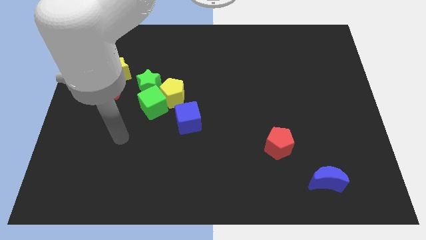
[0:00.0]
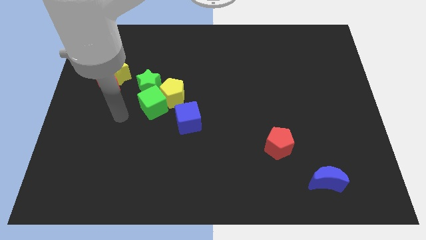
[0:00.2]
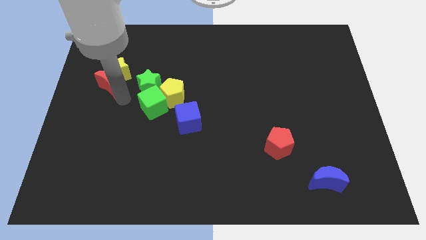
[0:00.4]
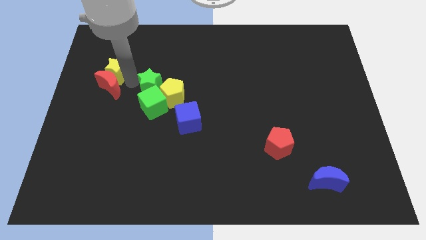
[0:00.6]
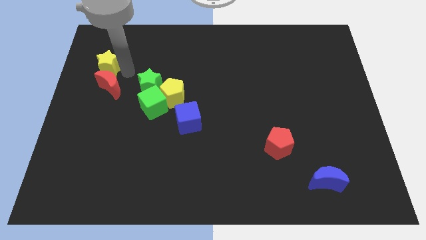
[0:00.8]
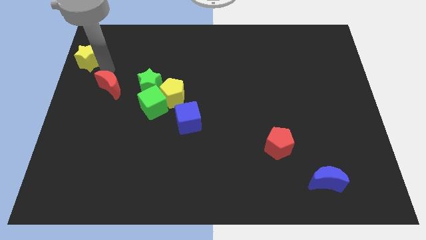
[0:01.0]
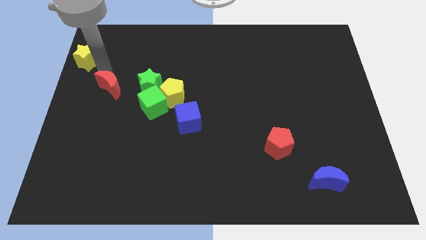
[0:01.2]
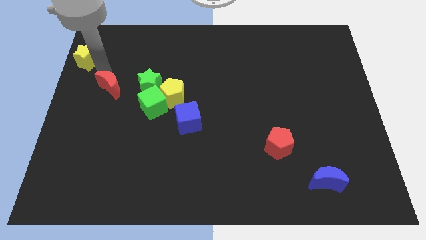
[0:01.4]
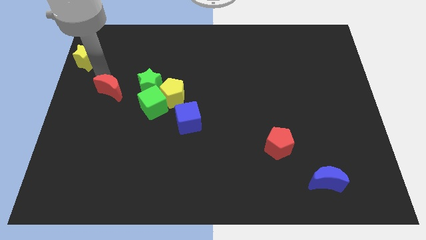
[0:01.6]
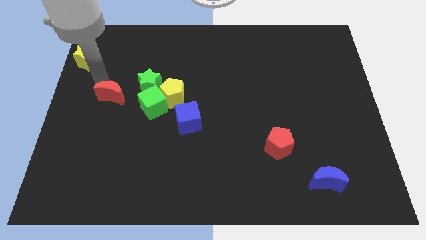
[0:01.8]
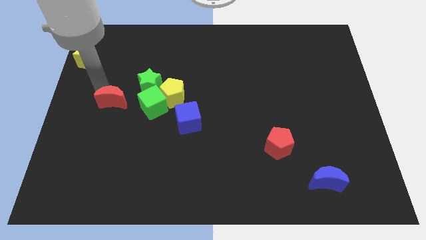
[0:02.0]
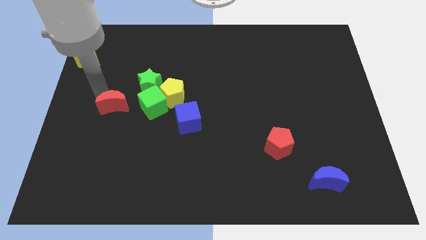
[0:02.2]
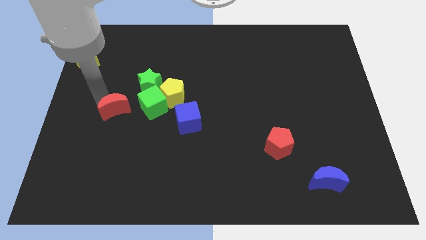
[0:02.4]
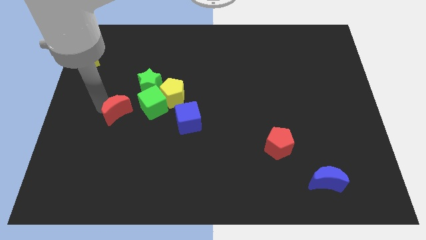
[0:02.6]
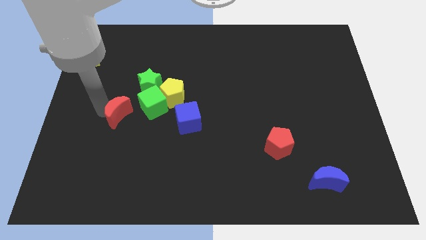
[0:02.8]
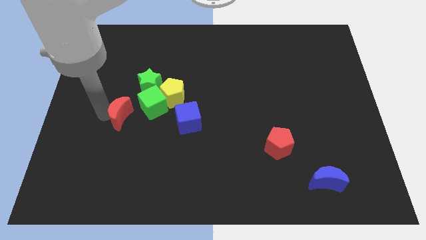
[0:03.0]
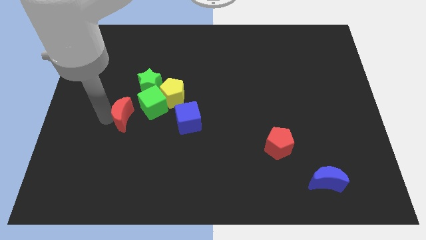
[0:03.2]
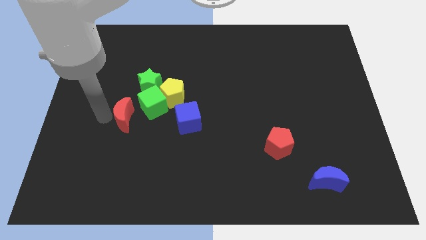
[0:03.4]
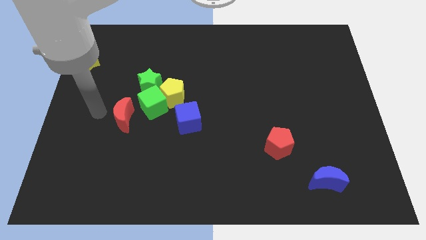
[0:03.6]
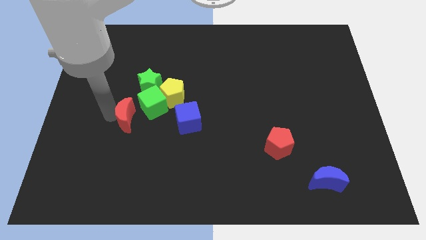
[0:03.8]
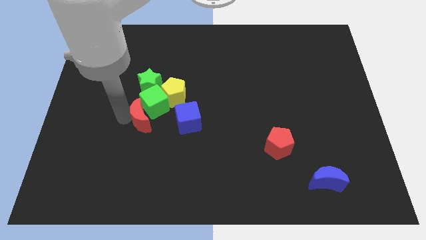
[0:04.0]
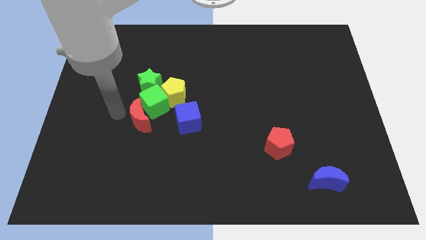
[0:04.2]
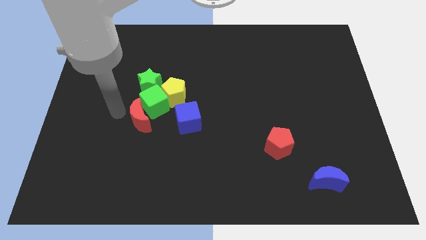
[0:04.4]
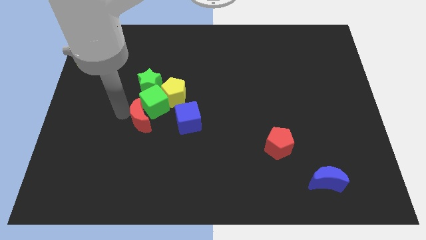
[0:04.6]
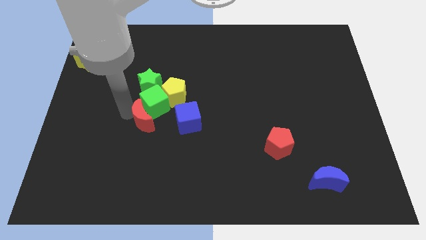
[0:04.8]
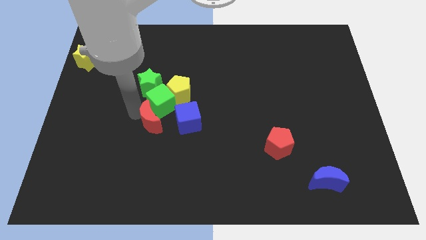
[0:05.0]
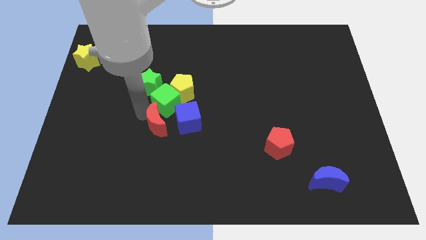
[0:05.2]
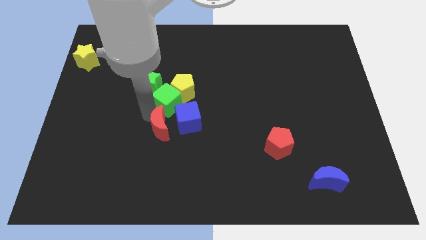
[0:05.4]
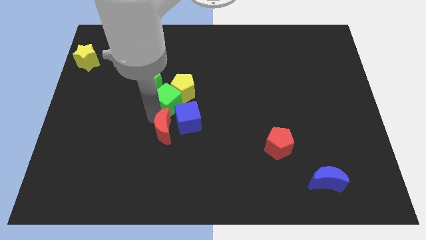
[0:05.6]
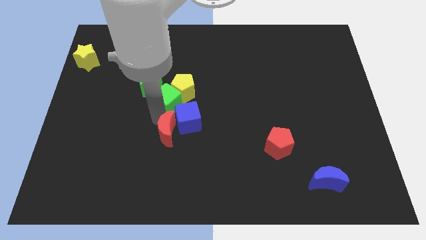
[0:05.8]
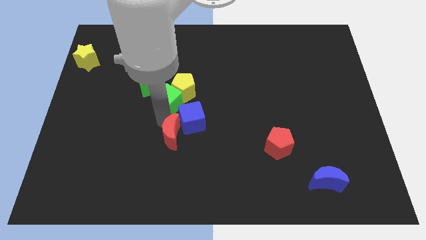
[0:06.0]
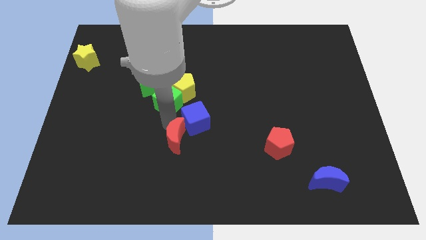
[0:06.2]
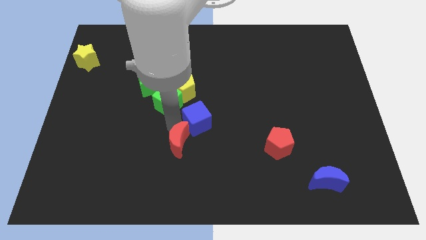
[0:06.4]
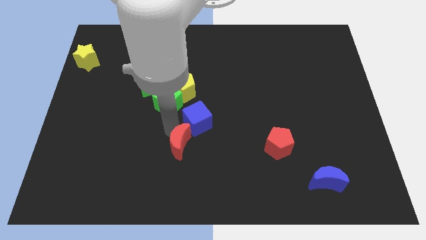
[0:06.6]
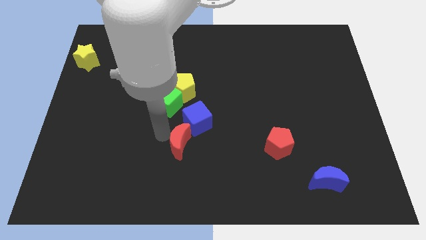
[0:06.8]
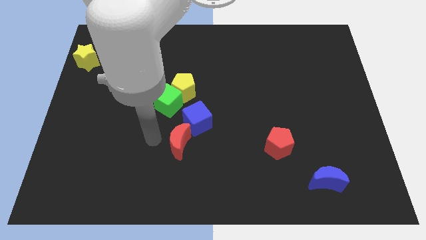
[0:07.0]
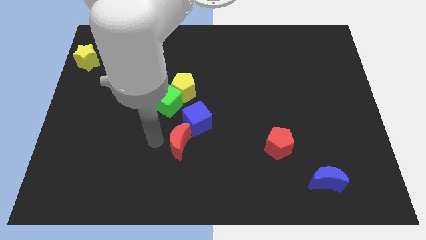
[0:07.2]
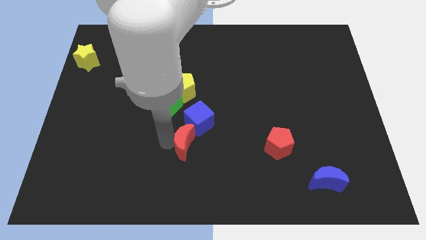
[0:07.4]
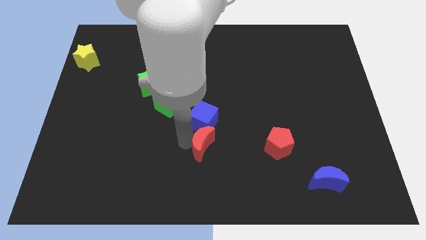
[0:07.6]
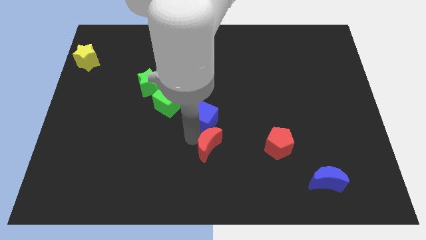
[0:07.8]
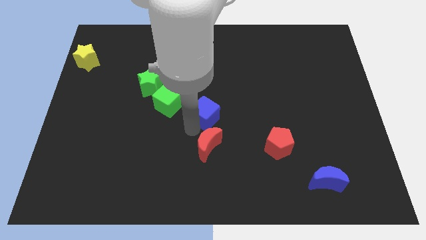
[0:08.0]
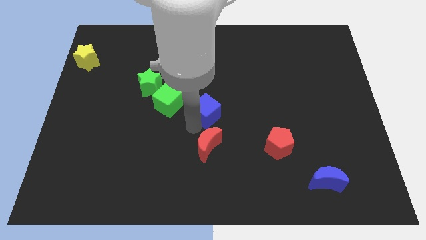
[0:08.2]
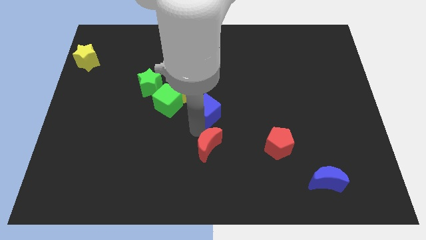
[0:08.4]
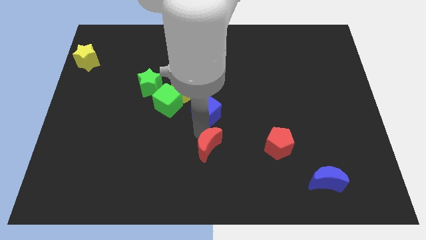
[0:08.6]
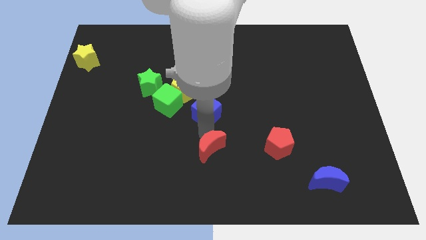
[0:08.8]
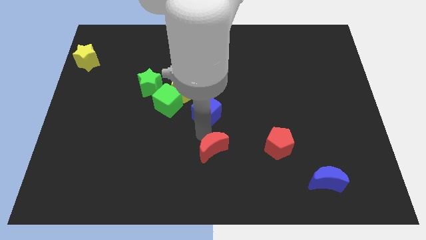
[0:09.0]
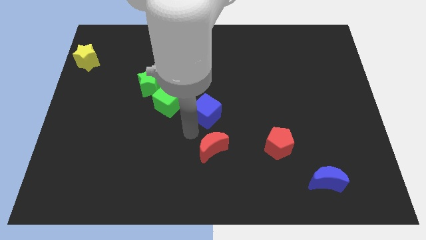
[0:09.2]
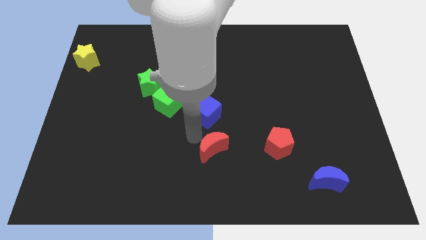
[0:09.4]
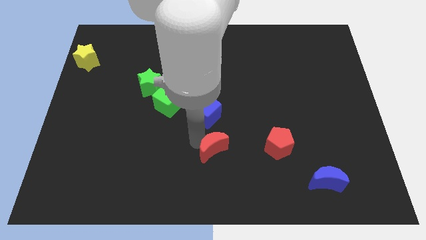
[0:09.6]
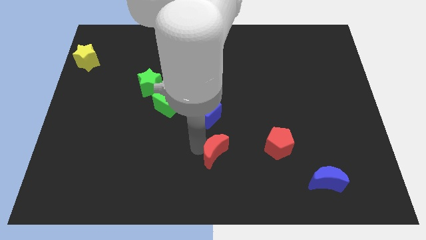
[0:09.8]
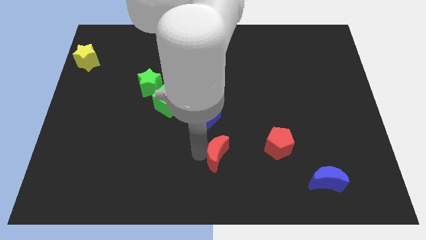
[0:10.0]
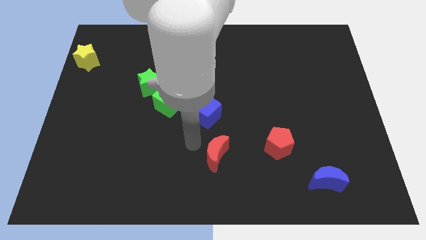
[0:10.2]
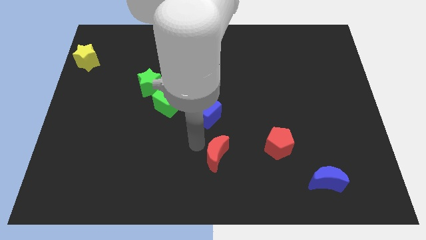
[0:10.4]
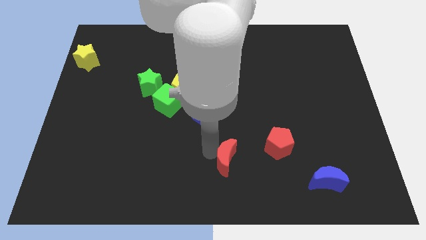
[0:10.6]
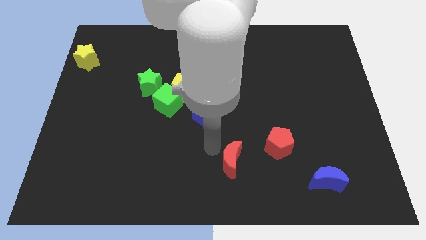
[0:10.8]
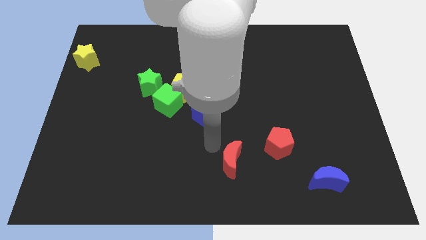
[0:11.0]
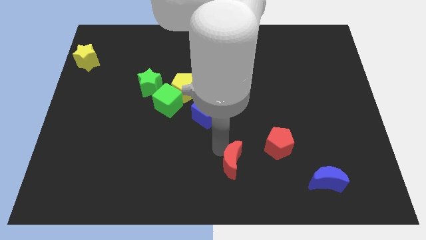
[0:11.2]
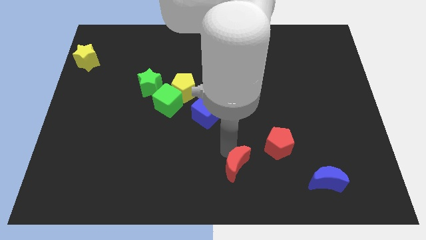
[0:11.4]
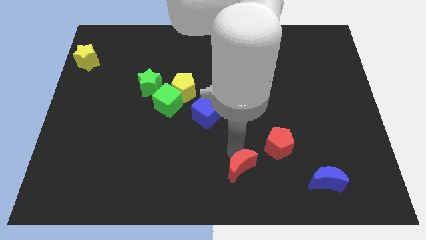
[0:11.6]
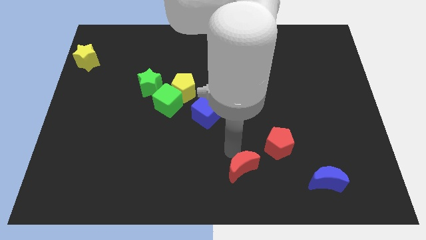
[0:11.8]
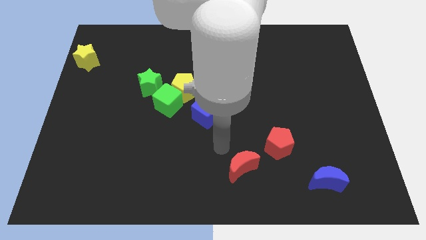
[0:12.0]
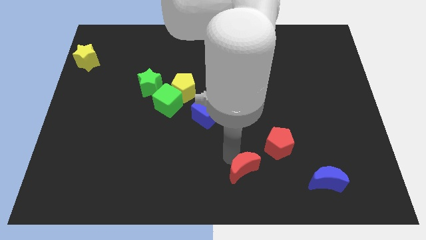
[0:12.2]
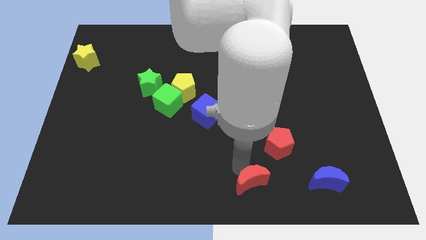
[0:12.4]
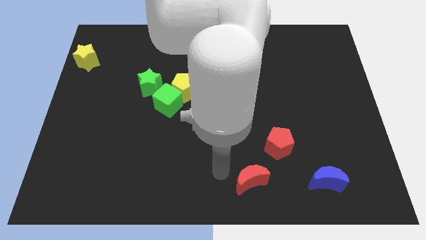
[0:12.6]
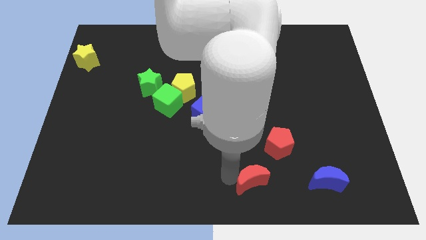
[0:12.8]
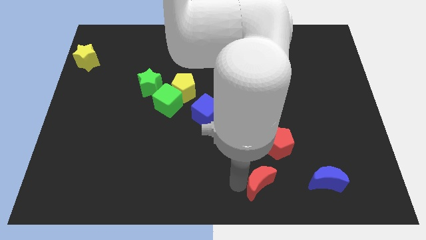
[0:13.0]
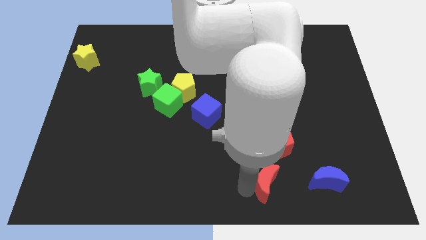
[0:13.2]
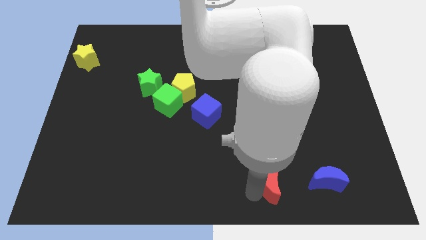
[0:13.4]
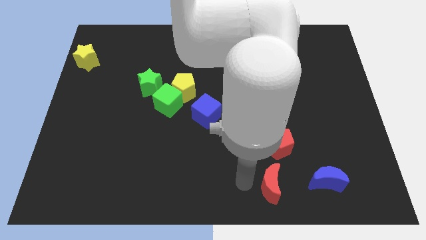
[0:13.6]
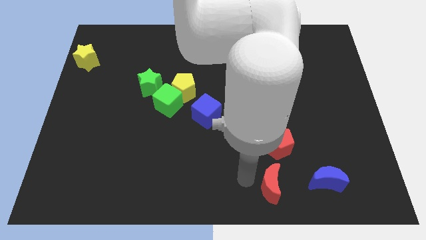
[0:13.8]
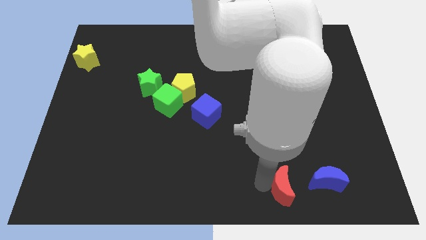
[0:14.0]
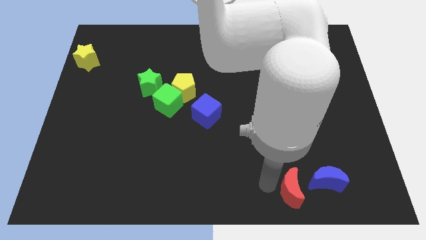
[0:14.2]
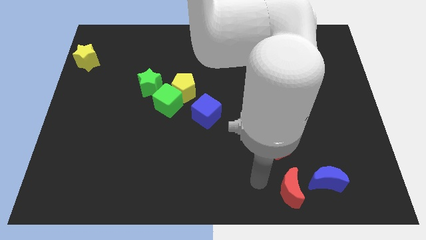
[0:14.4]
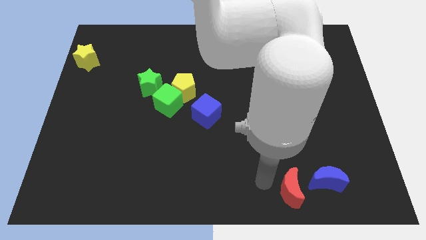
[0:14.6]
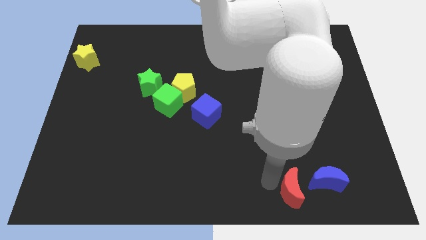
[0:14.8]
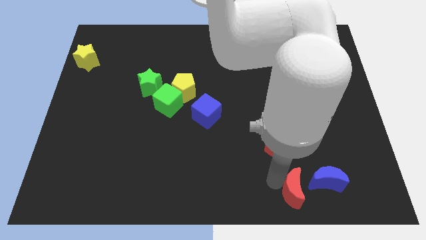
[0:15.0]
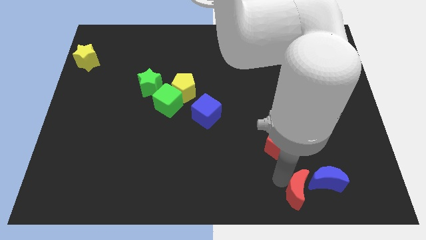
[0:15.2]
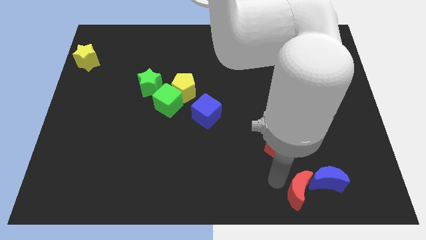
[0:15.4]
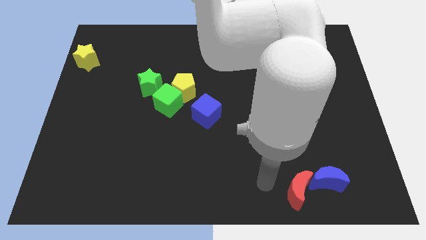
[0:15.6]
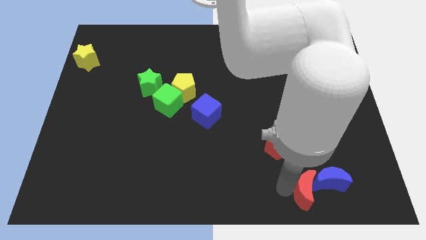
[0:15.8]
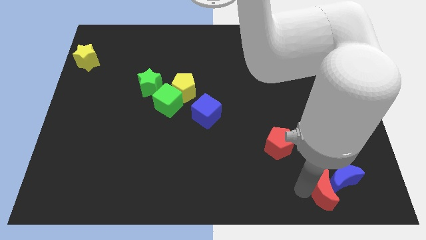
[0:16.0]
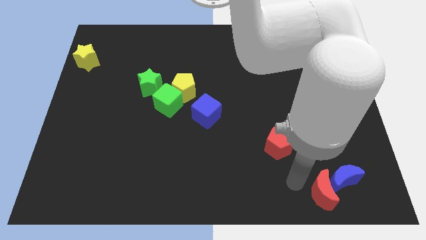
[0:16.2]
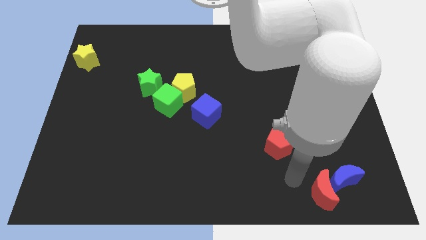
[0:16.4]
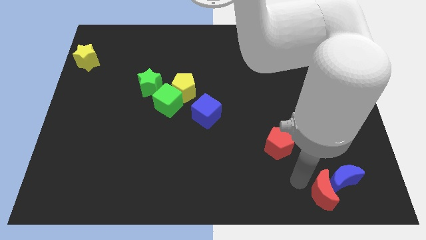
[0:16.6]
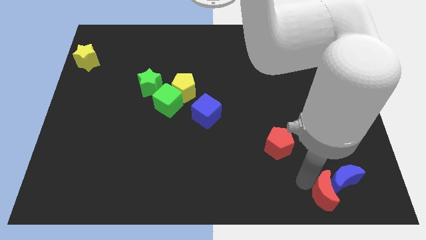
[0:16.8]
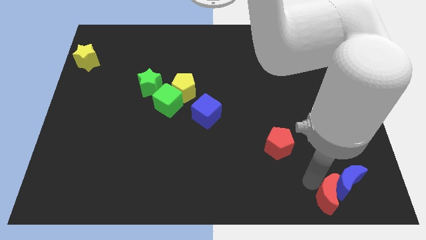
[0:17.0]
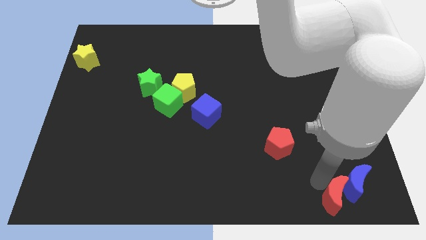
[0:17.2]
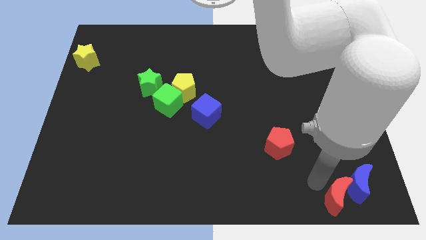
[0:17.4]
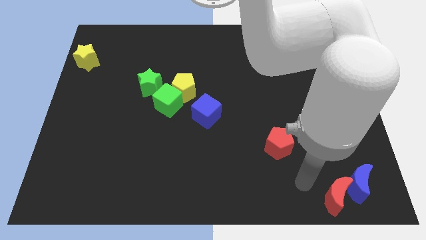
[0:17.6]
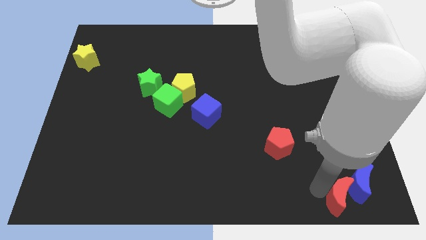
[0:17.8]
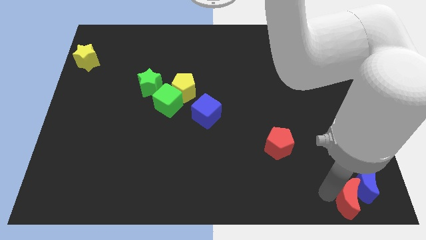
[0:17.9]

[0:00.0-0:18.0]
move the red moon to the bottom right of the board
